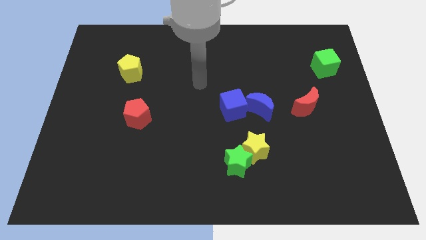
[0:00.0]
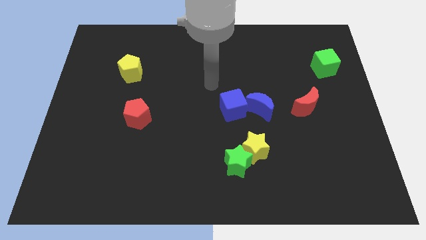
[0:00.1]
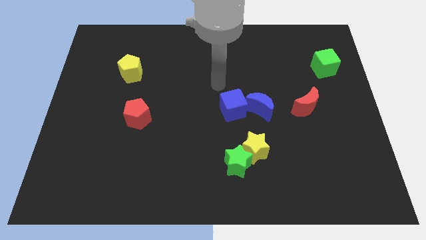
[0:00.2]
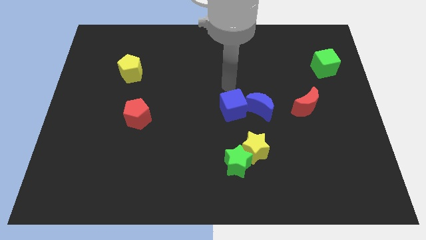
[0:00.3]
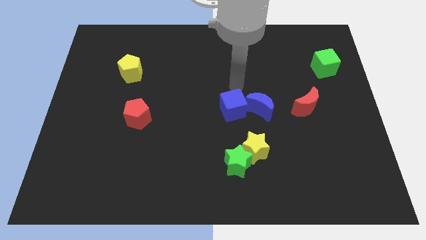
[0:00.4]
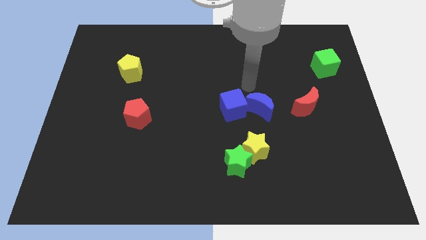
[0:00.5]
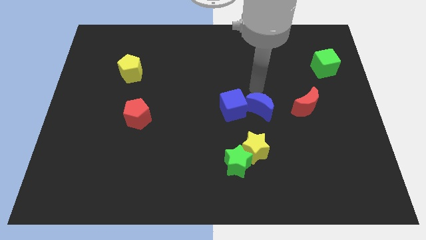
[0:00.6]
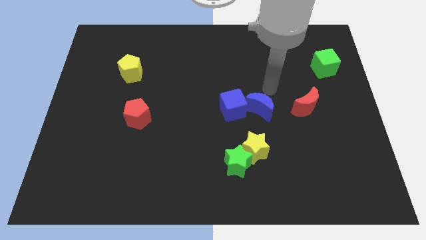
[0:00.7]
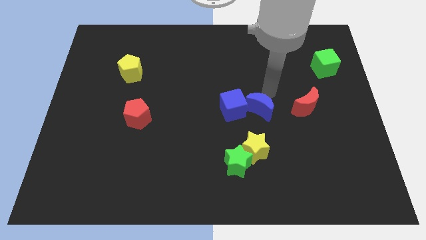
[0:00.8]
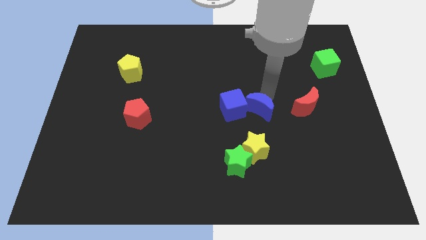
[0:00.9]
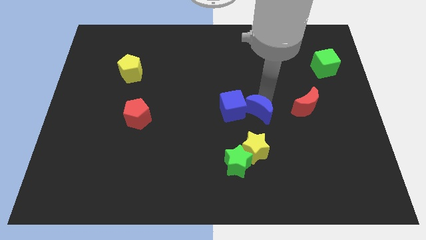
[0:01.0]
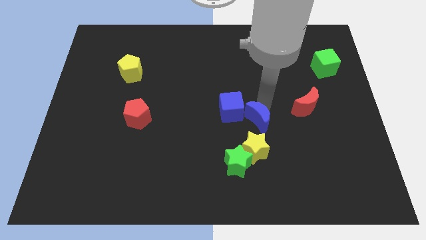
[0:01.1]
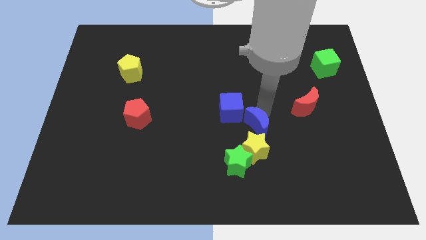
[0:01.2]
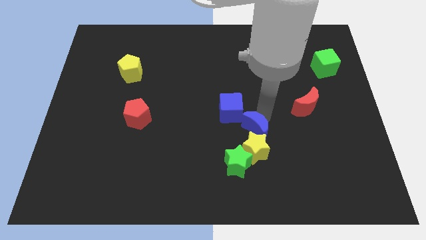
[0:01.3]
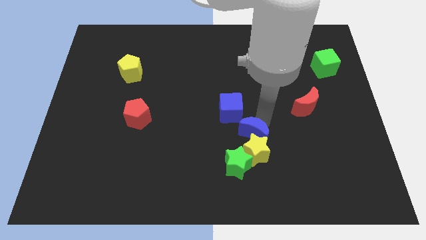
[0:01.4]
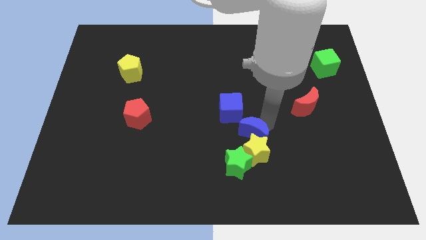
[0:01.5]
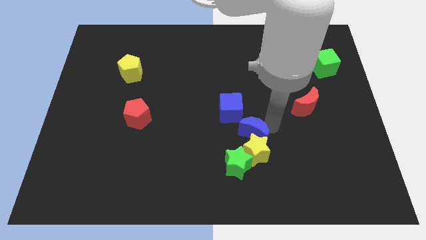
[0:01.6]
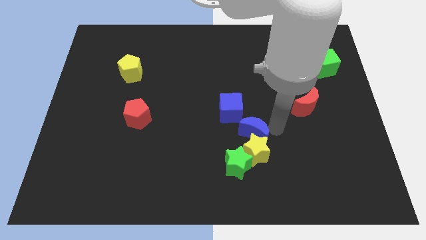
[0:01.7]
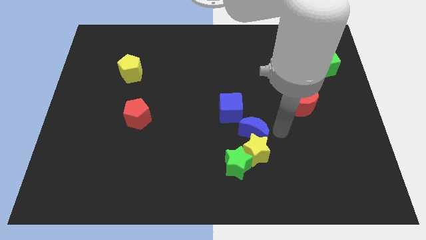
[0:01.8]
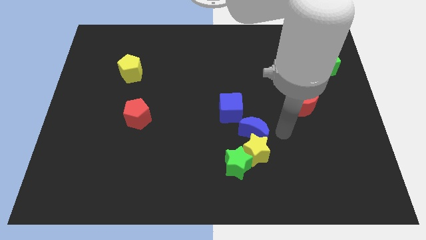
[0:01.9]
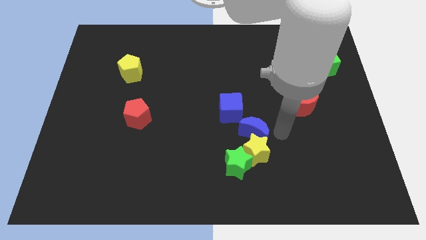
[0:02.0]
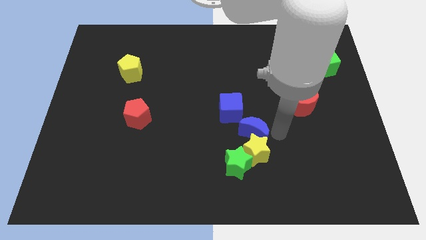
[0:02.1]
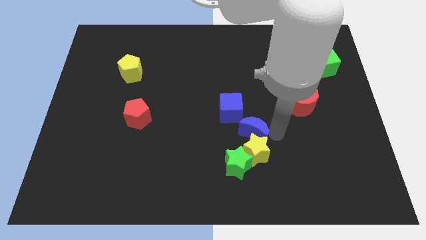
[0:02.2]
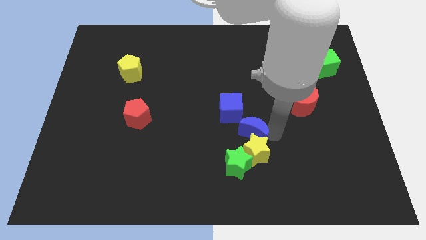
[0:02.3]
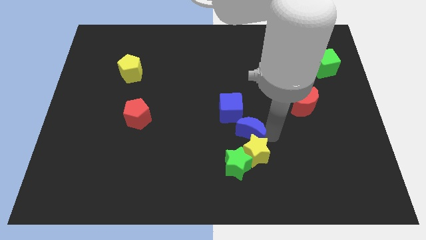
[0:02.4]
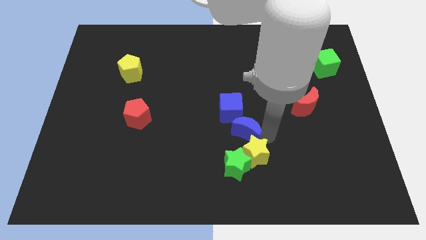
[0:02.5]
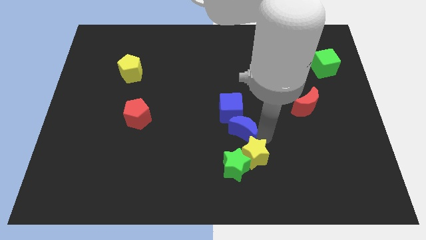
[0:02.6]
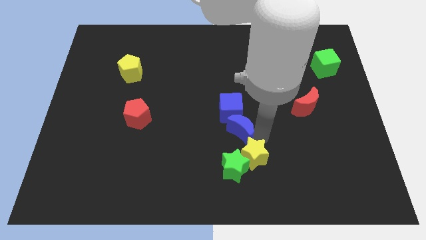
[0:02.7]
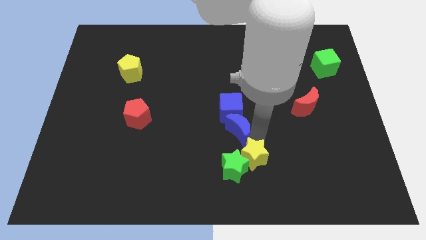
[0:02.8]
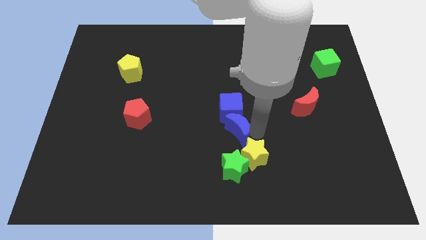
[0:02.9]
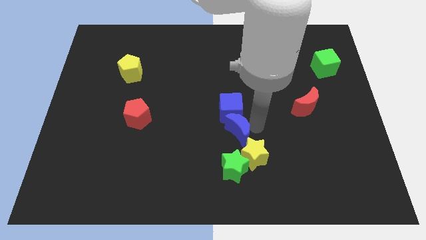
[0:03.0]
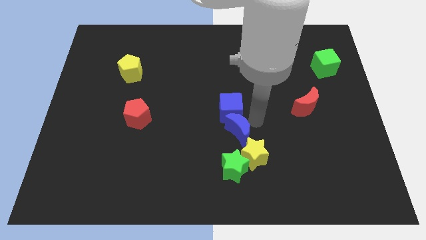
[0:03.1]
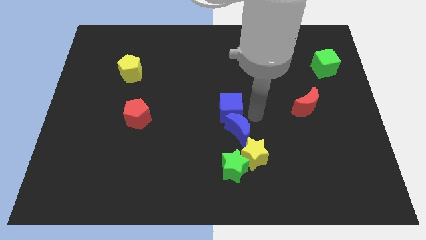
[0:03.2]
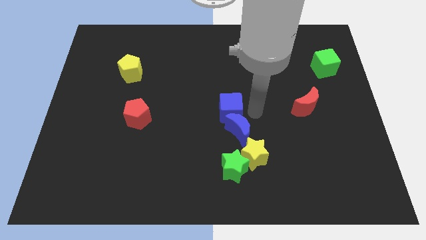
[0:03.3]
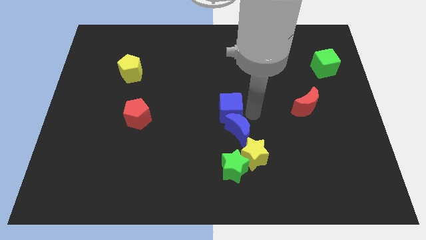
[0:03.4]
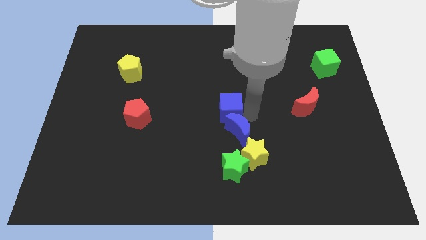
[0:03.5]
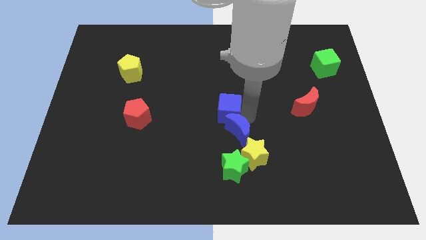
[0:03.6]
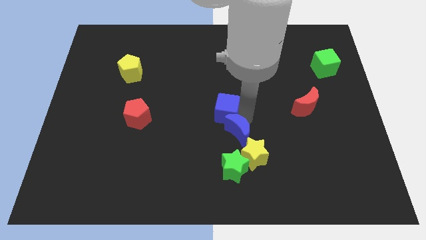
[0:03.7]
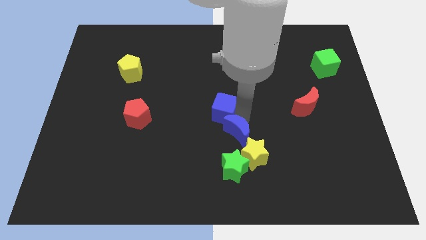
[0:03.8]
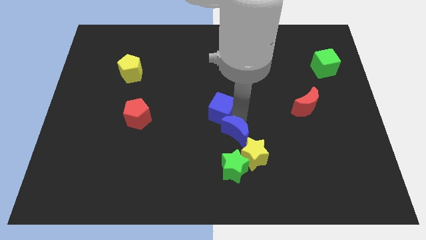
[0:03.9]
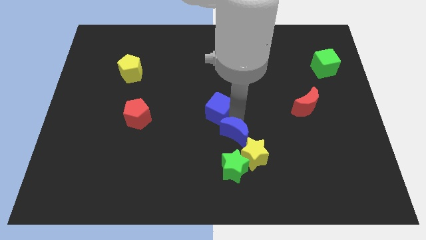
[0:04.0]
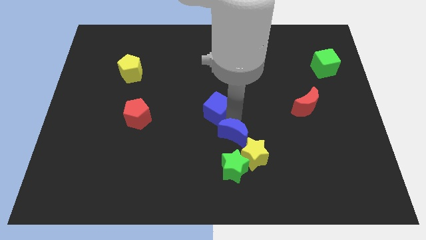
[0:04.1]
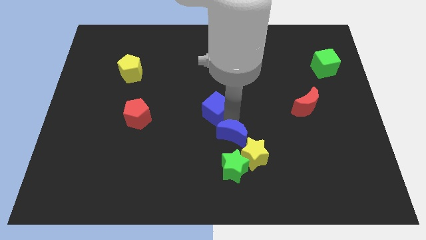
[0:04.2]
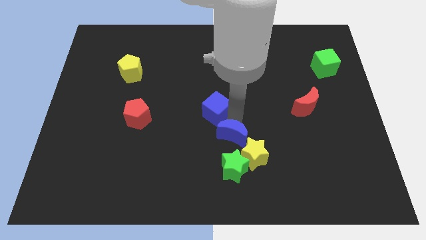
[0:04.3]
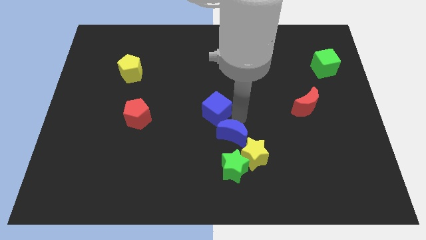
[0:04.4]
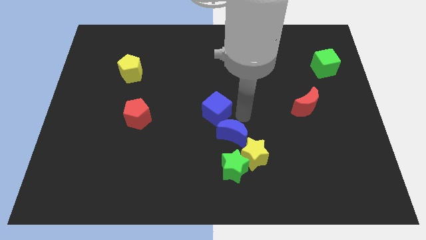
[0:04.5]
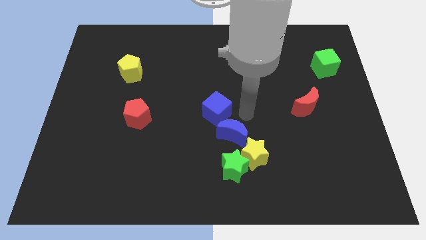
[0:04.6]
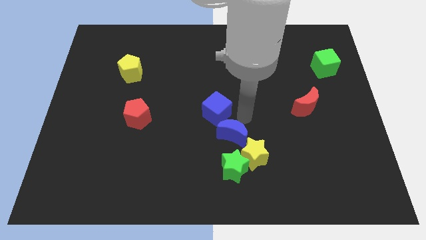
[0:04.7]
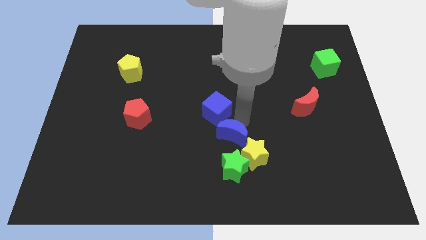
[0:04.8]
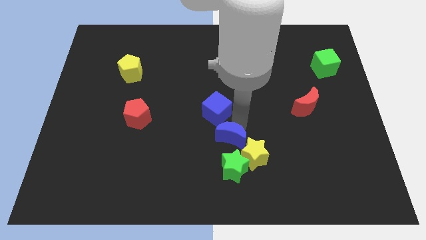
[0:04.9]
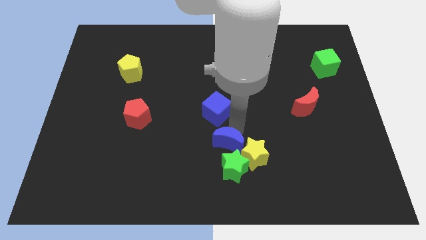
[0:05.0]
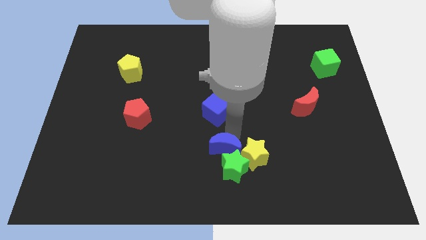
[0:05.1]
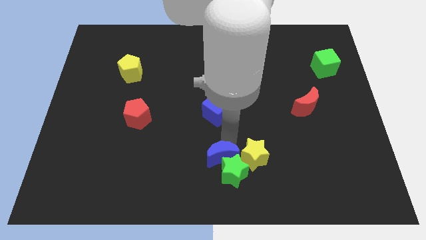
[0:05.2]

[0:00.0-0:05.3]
put the blue moon to the bottom

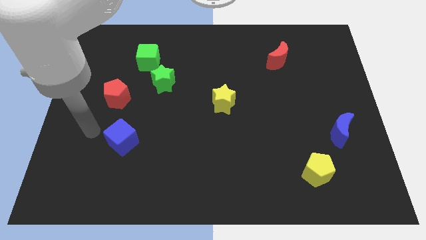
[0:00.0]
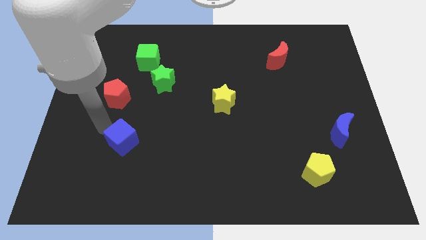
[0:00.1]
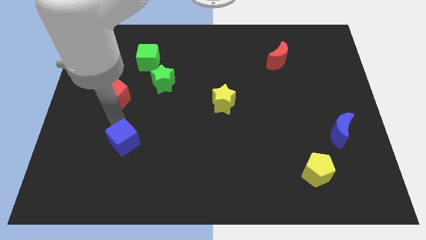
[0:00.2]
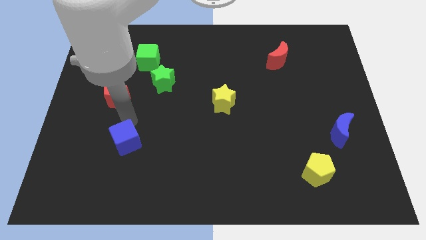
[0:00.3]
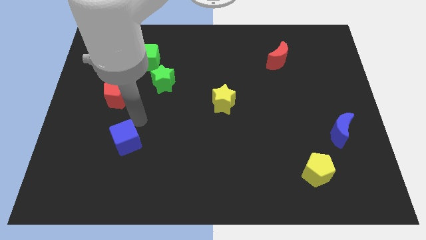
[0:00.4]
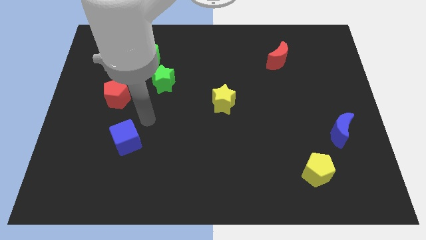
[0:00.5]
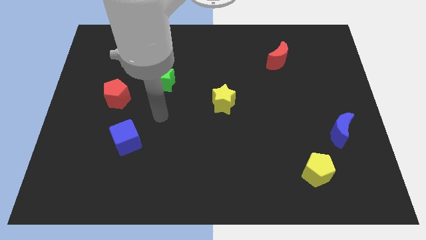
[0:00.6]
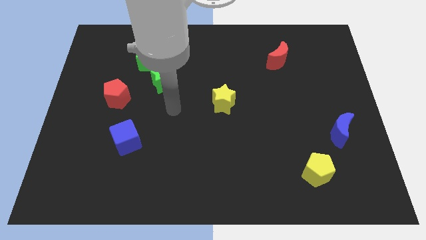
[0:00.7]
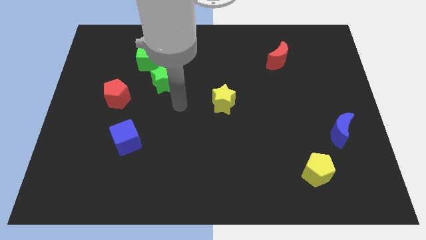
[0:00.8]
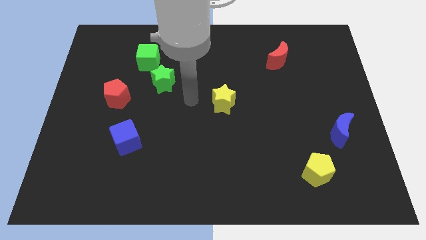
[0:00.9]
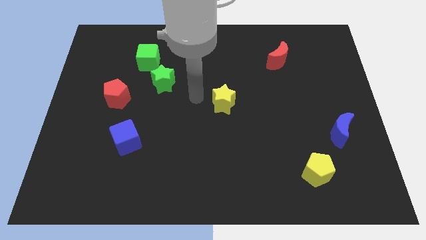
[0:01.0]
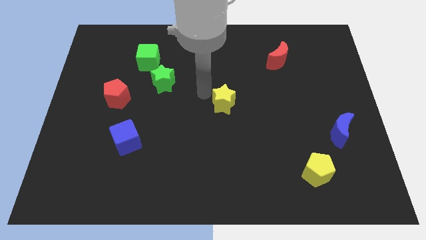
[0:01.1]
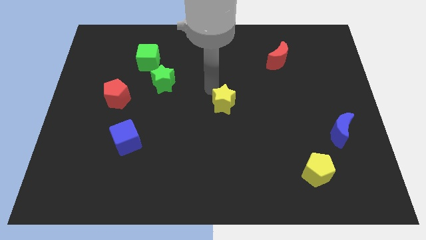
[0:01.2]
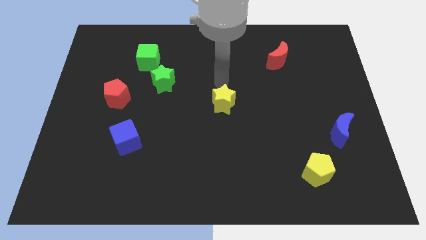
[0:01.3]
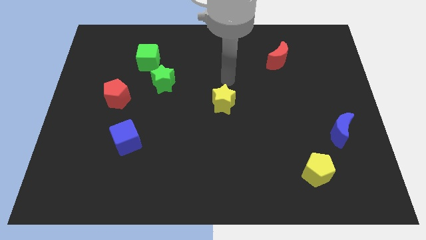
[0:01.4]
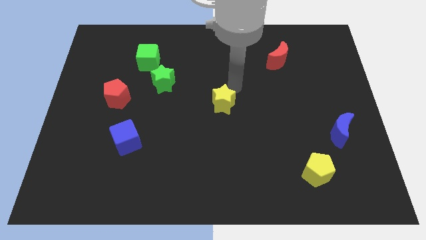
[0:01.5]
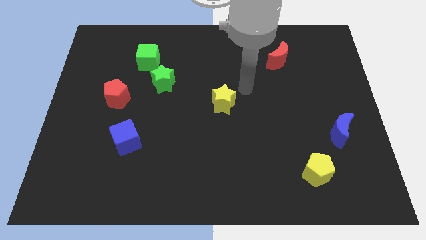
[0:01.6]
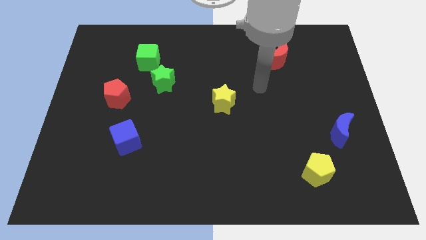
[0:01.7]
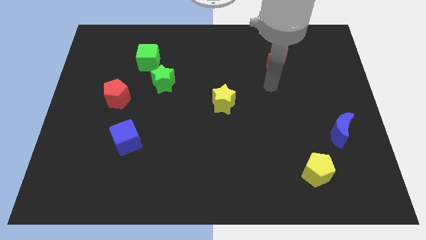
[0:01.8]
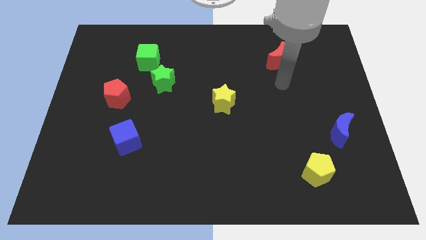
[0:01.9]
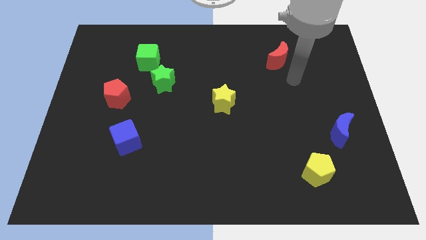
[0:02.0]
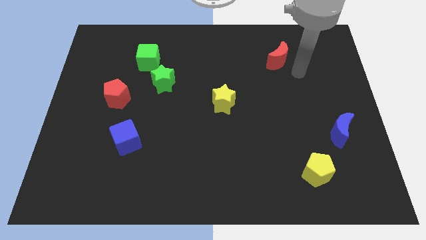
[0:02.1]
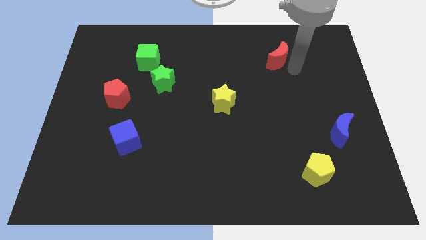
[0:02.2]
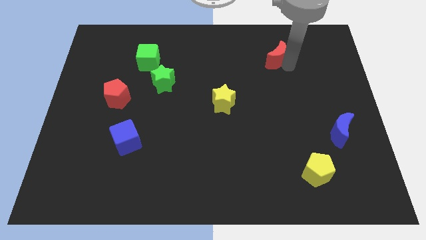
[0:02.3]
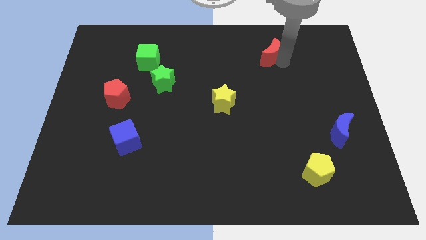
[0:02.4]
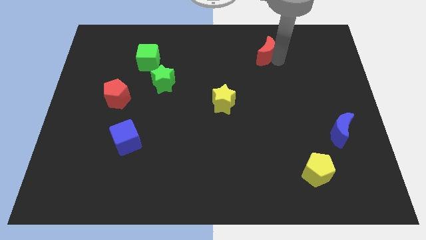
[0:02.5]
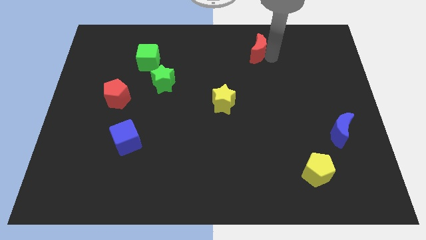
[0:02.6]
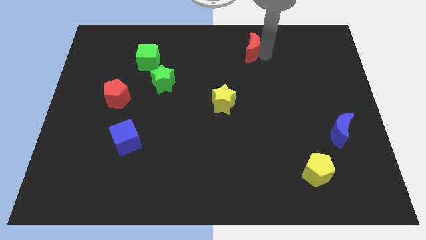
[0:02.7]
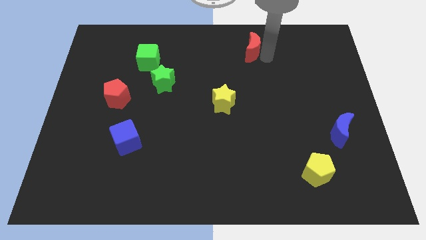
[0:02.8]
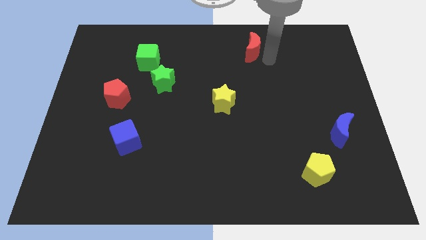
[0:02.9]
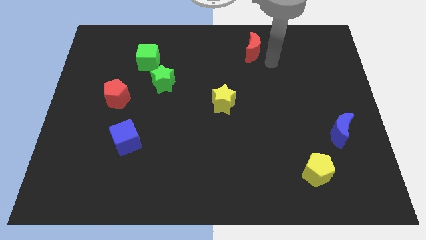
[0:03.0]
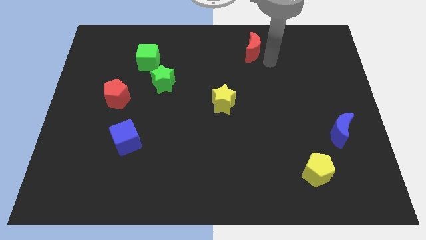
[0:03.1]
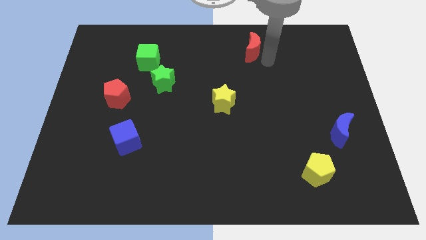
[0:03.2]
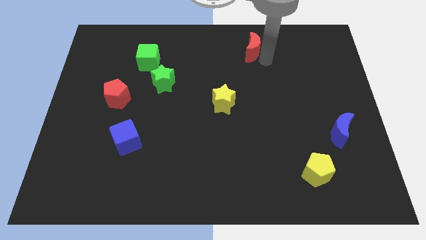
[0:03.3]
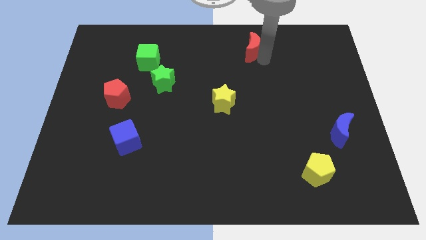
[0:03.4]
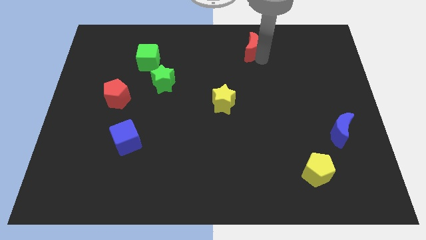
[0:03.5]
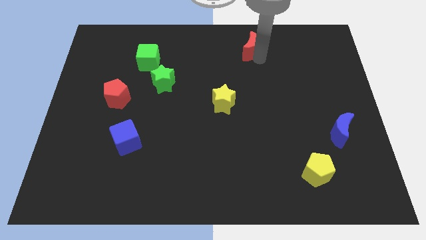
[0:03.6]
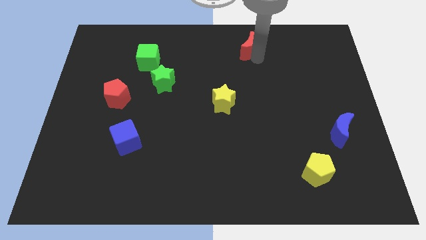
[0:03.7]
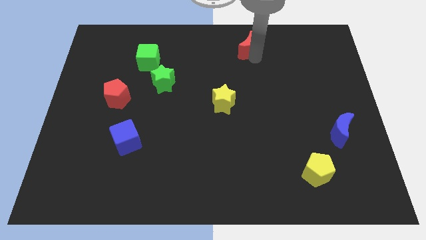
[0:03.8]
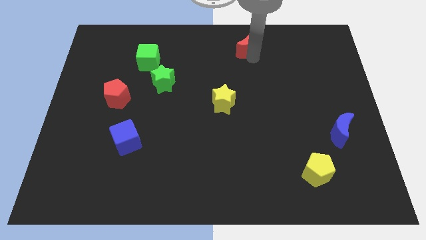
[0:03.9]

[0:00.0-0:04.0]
move the red moon to the top
